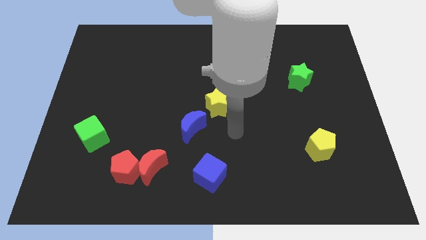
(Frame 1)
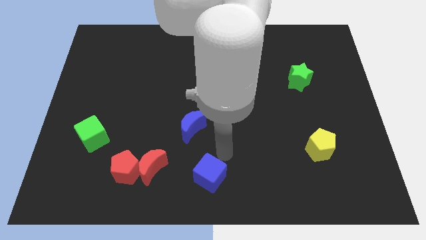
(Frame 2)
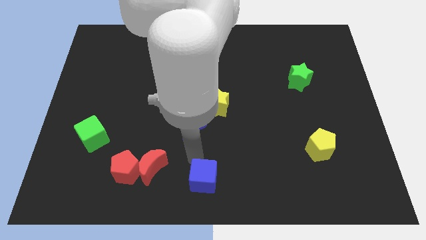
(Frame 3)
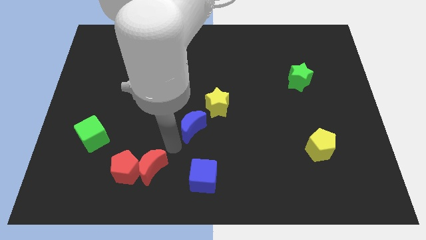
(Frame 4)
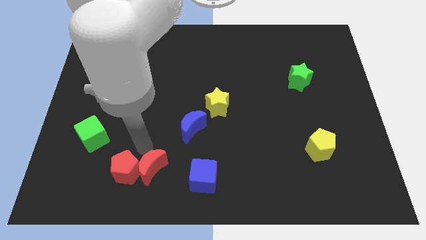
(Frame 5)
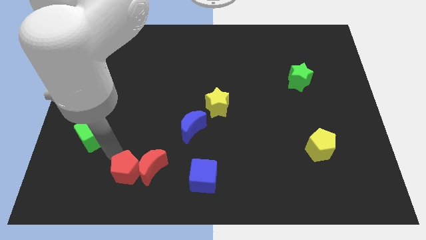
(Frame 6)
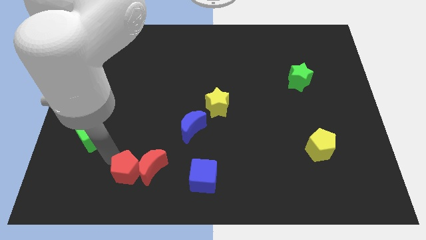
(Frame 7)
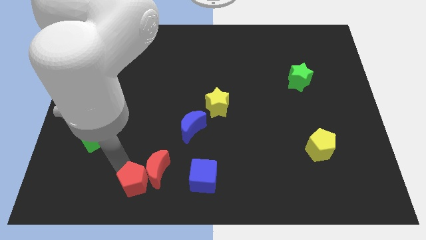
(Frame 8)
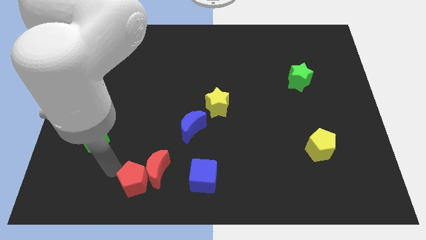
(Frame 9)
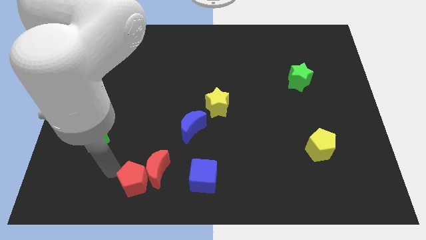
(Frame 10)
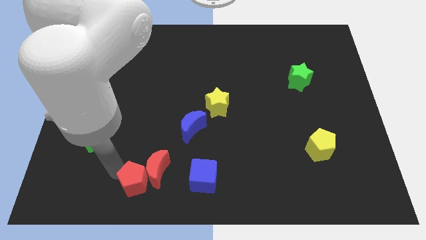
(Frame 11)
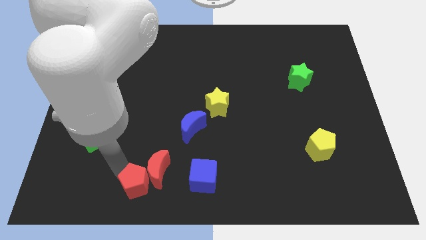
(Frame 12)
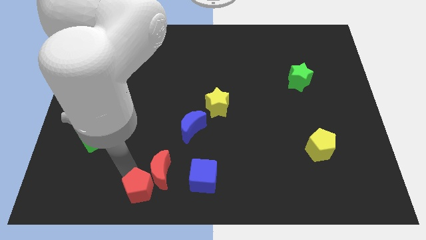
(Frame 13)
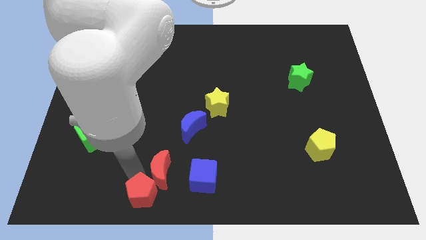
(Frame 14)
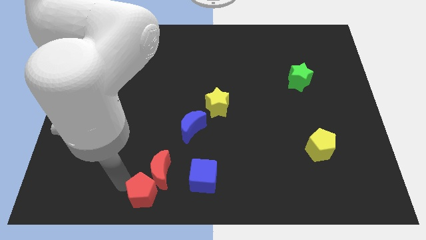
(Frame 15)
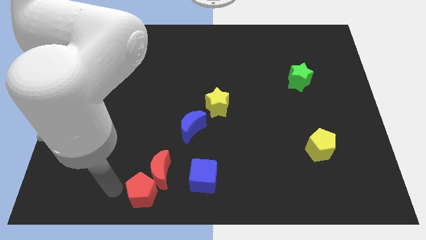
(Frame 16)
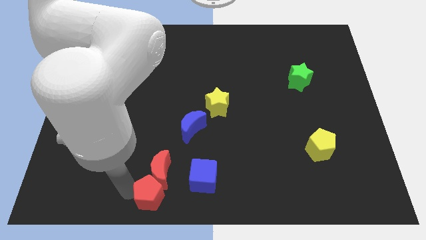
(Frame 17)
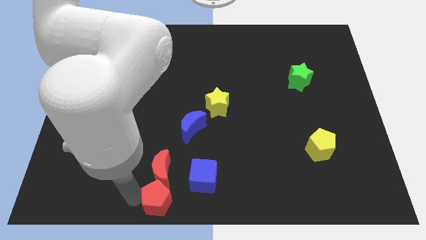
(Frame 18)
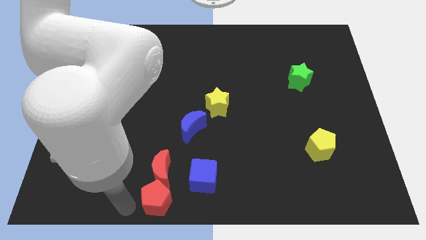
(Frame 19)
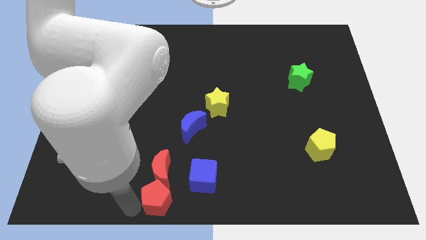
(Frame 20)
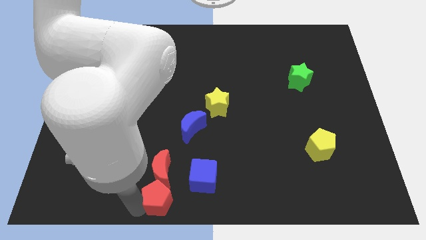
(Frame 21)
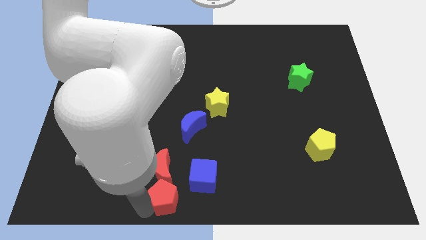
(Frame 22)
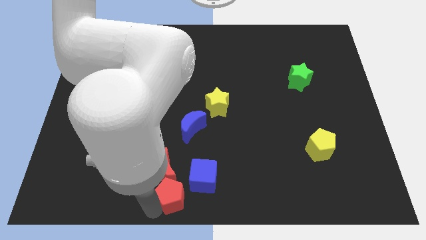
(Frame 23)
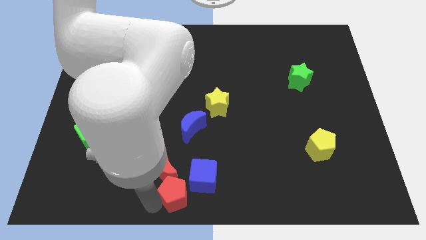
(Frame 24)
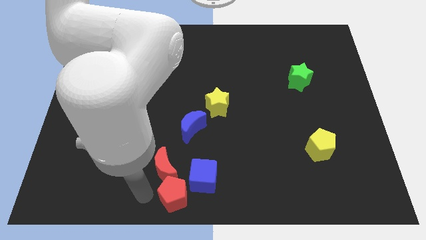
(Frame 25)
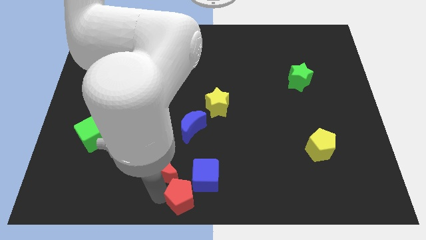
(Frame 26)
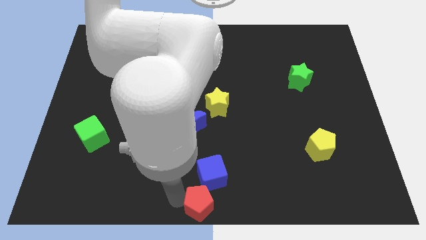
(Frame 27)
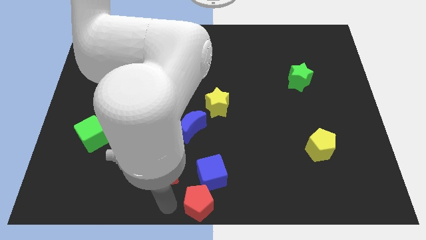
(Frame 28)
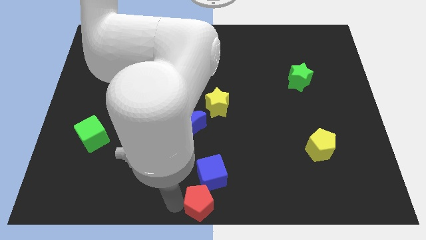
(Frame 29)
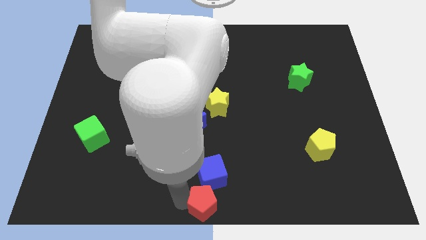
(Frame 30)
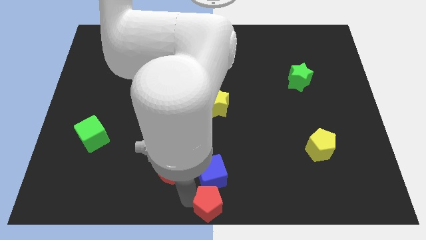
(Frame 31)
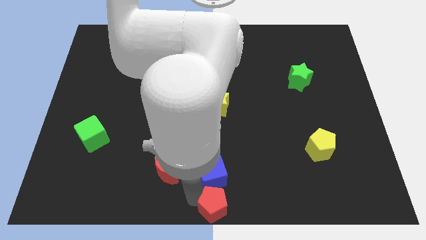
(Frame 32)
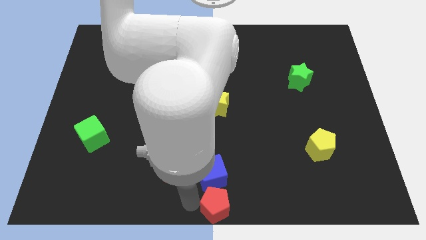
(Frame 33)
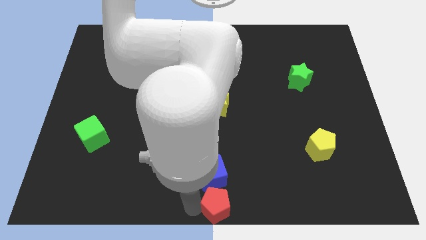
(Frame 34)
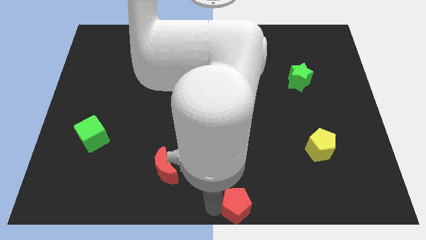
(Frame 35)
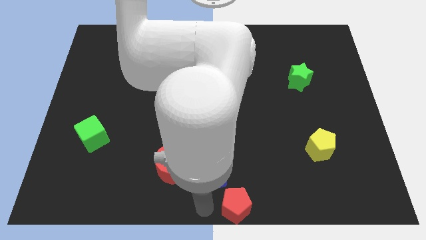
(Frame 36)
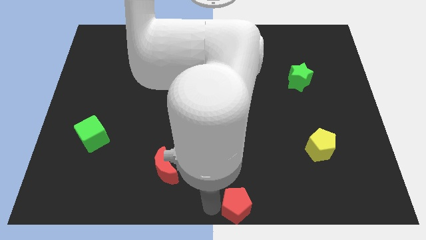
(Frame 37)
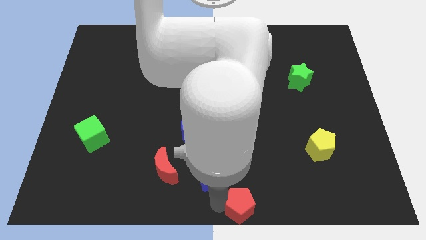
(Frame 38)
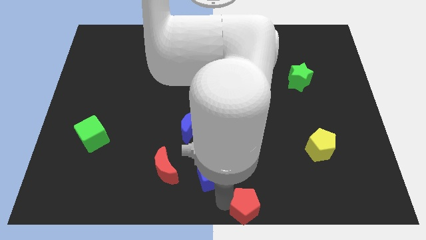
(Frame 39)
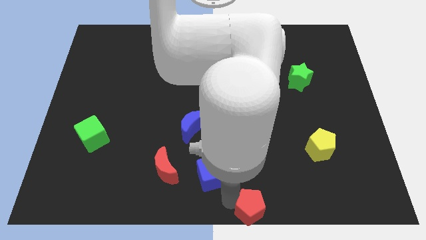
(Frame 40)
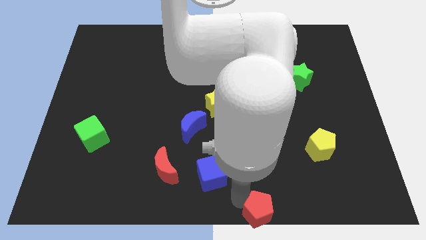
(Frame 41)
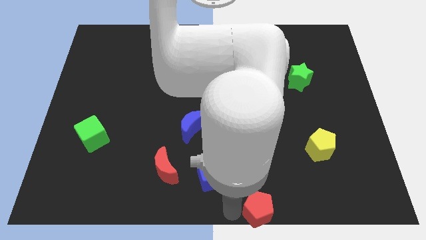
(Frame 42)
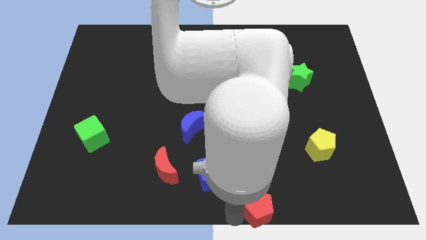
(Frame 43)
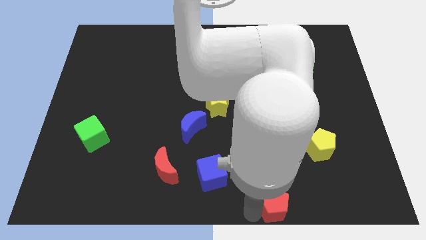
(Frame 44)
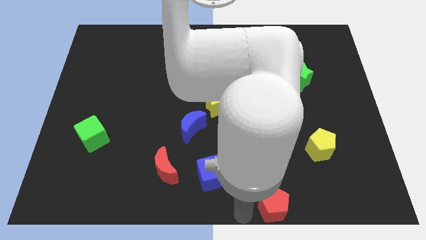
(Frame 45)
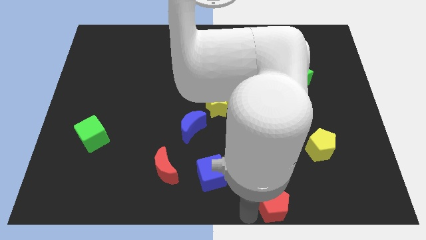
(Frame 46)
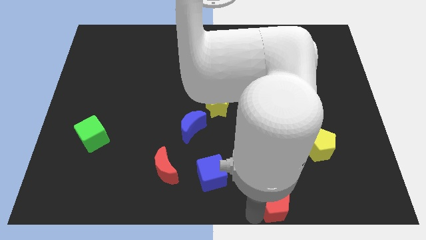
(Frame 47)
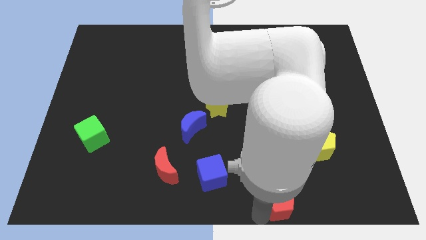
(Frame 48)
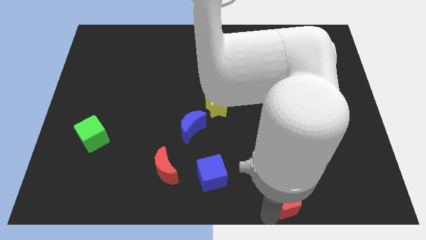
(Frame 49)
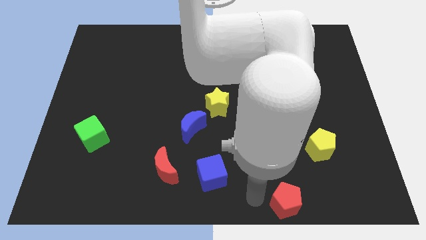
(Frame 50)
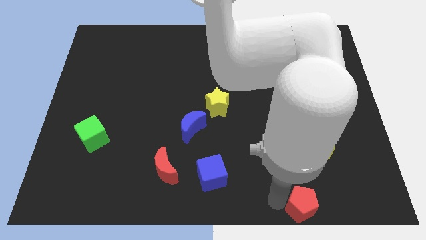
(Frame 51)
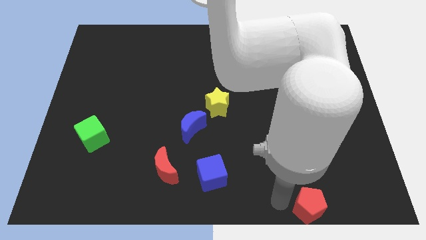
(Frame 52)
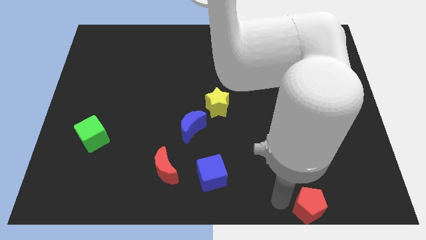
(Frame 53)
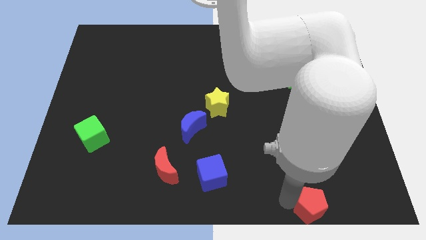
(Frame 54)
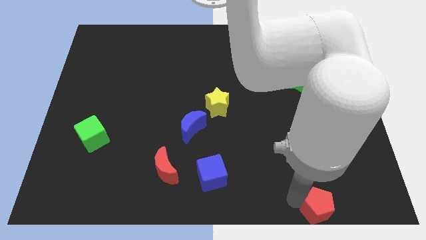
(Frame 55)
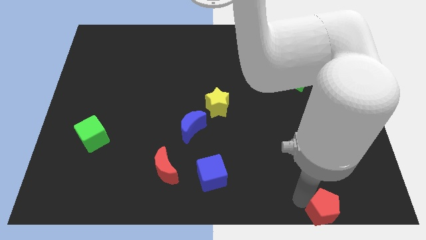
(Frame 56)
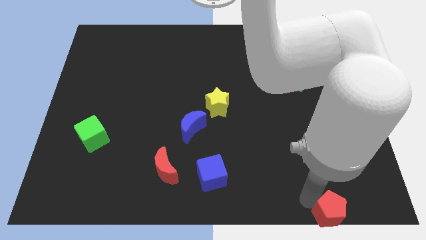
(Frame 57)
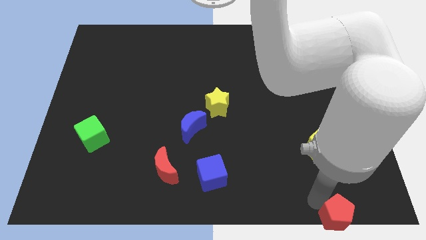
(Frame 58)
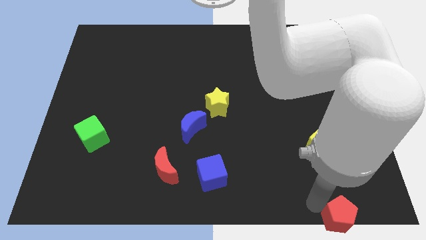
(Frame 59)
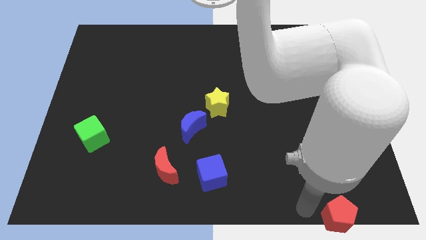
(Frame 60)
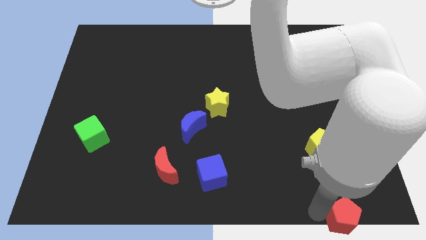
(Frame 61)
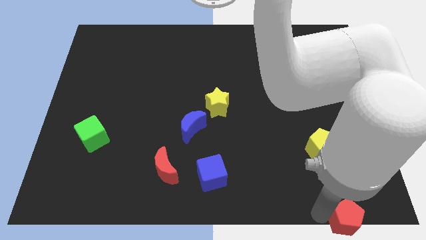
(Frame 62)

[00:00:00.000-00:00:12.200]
put the red pentagon to the bottom right corner
